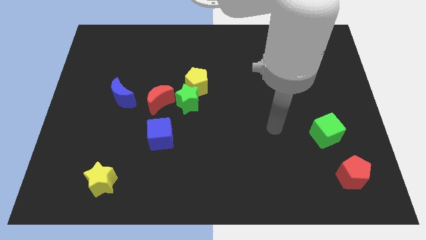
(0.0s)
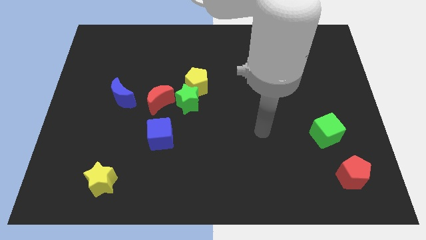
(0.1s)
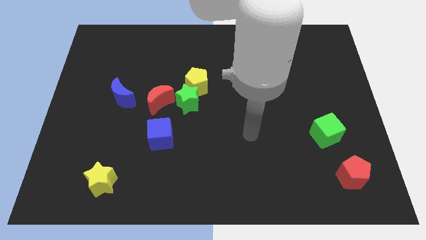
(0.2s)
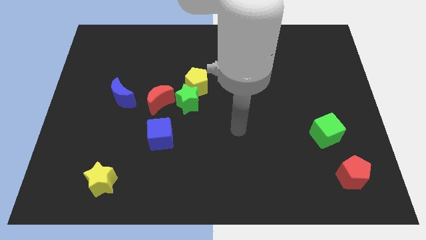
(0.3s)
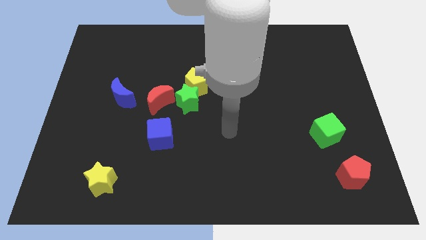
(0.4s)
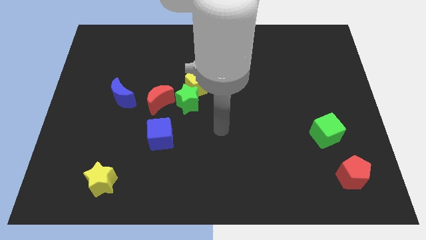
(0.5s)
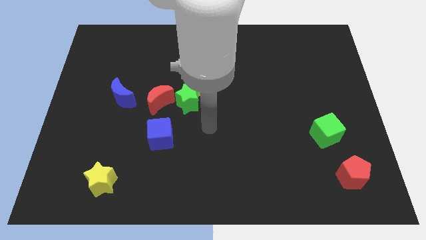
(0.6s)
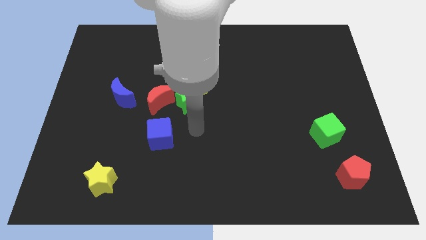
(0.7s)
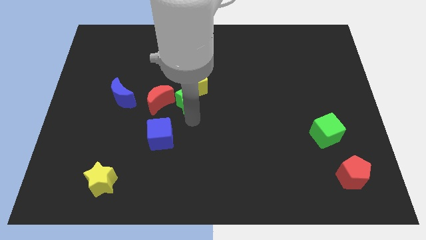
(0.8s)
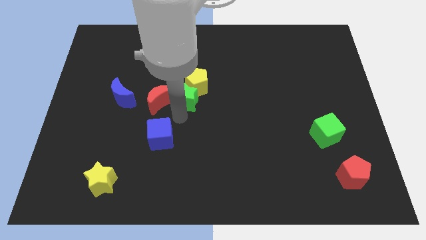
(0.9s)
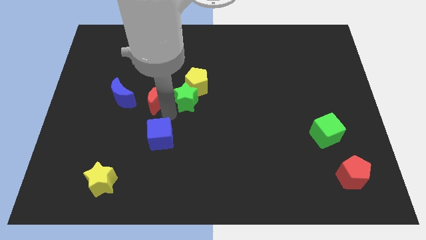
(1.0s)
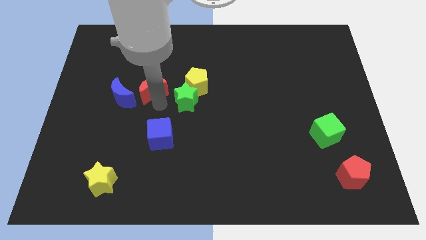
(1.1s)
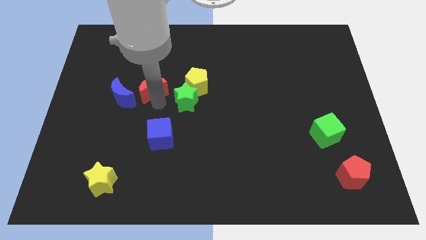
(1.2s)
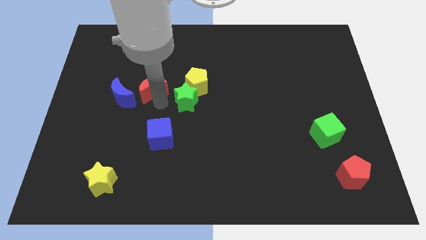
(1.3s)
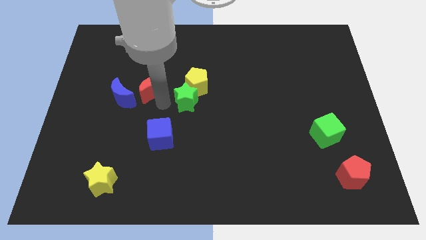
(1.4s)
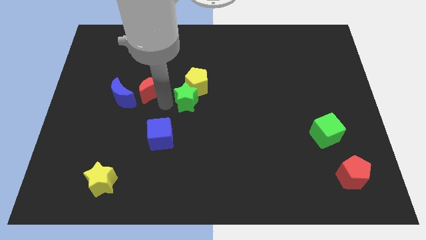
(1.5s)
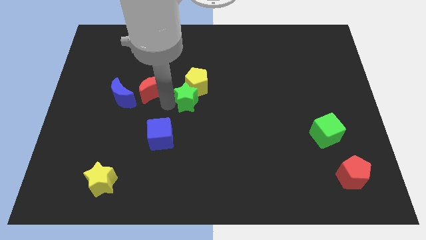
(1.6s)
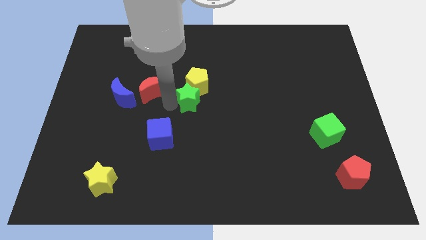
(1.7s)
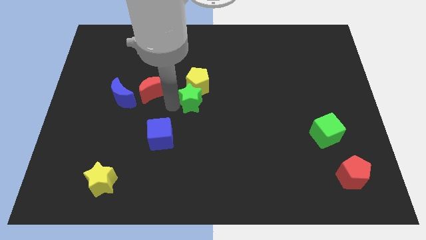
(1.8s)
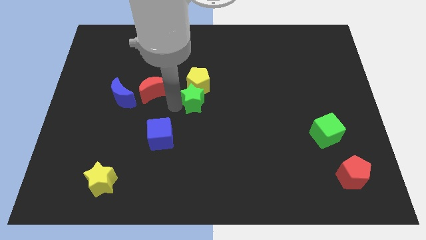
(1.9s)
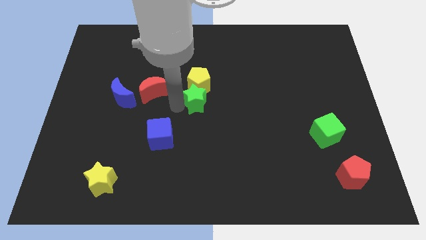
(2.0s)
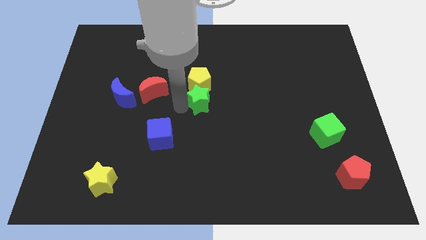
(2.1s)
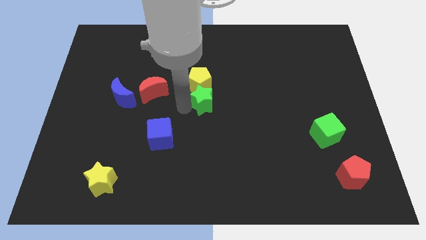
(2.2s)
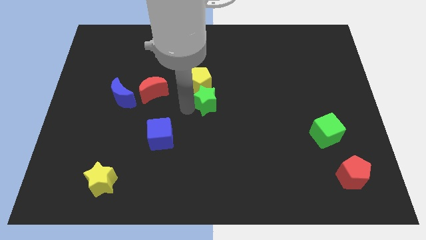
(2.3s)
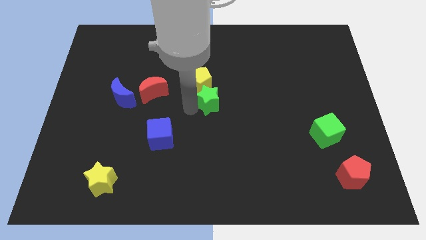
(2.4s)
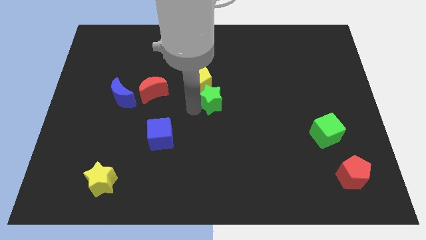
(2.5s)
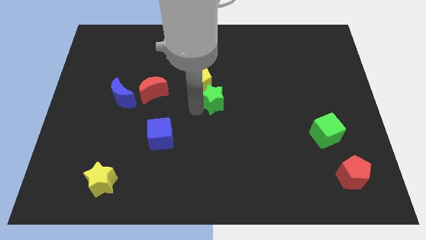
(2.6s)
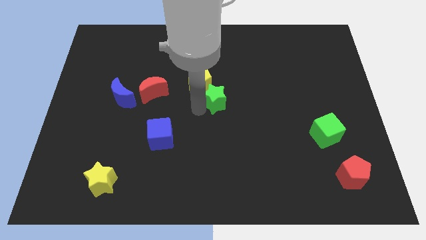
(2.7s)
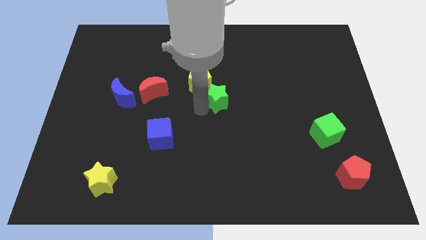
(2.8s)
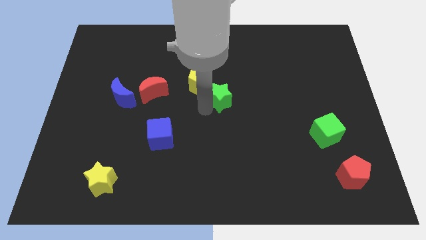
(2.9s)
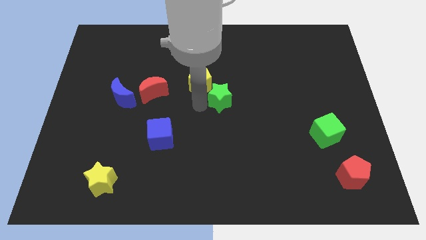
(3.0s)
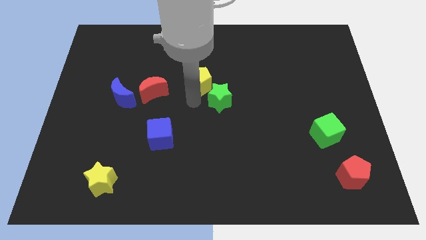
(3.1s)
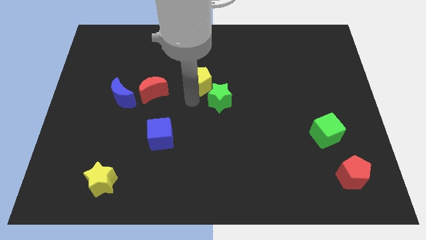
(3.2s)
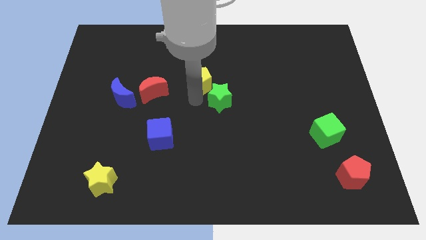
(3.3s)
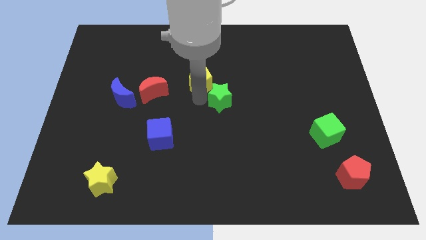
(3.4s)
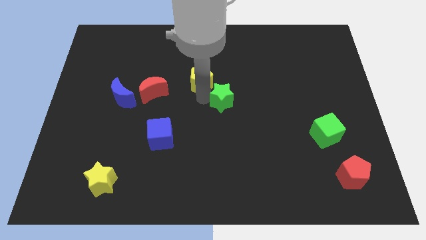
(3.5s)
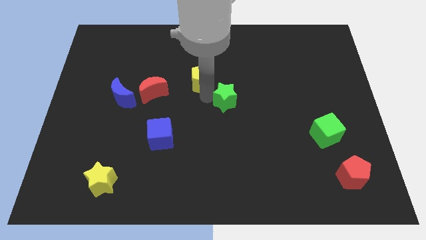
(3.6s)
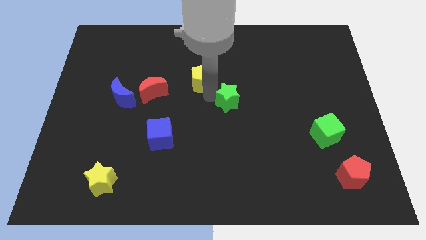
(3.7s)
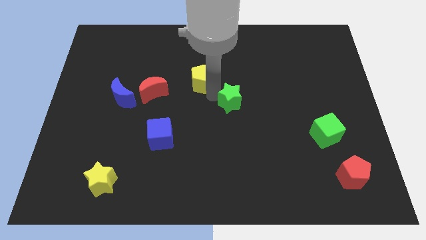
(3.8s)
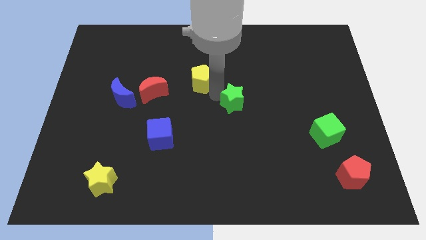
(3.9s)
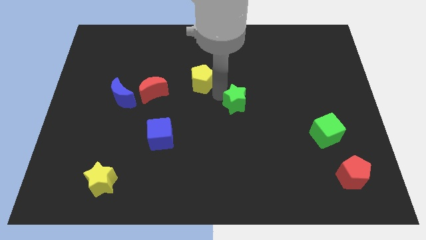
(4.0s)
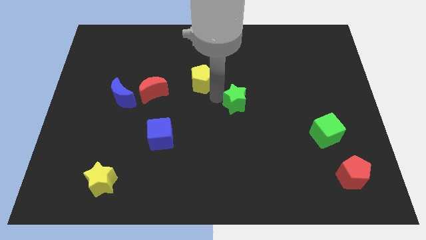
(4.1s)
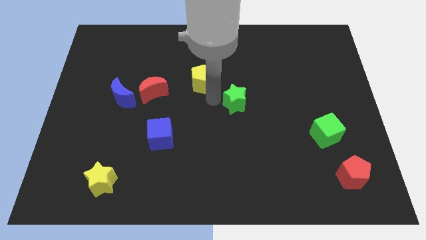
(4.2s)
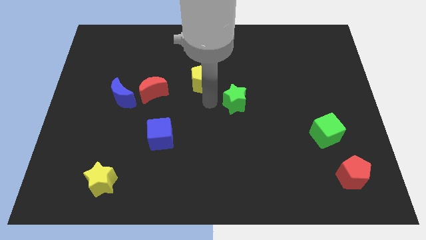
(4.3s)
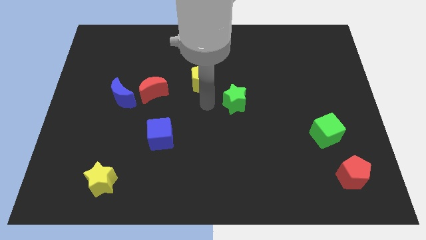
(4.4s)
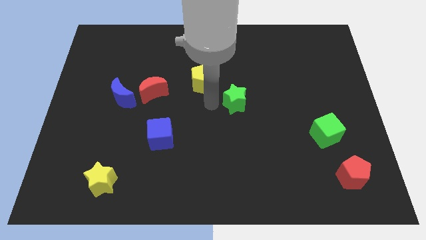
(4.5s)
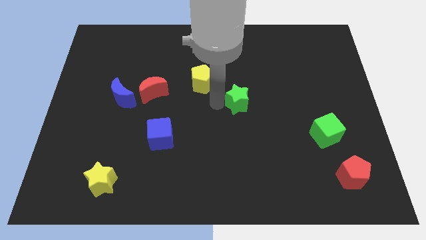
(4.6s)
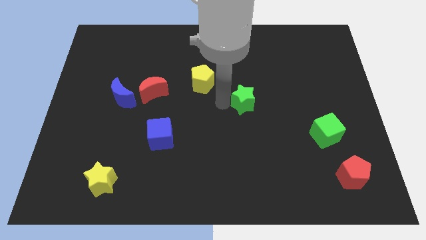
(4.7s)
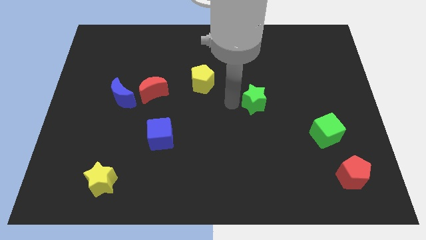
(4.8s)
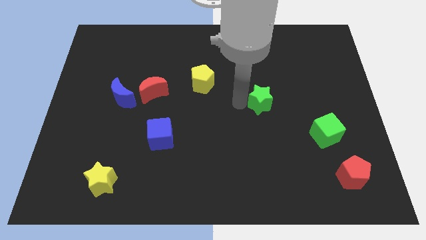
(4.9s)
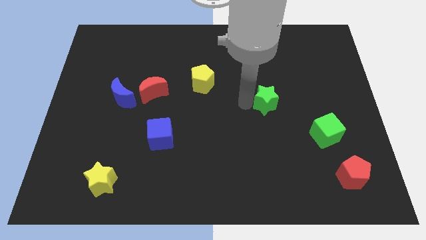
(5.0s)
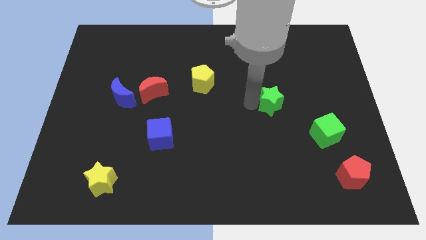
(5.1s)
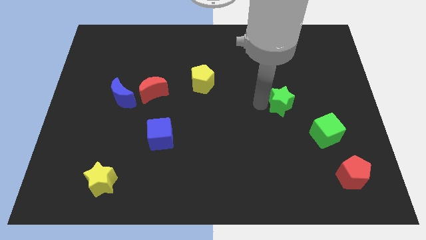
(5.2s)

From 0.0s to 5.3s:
push the green star right

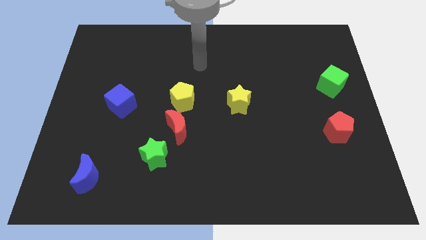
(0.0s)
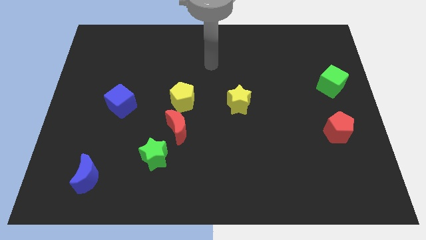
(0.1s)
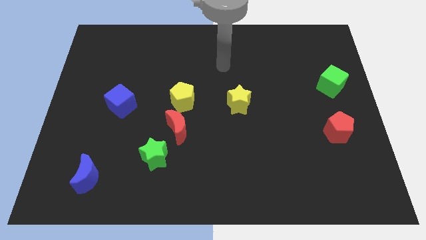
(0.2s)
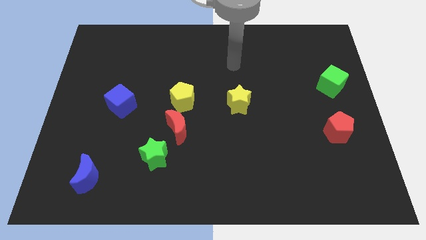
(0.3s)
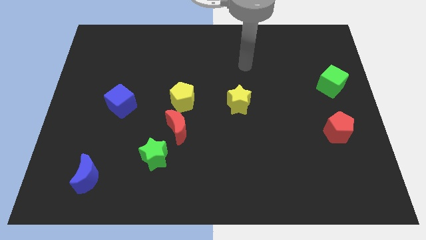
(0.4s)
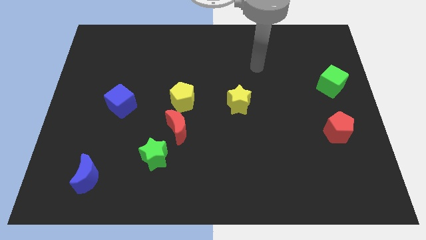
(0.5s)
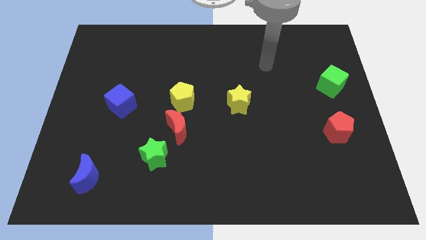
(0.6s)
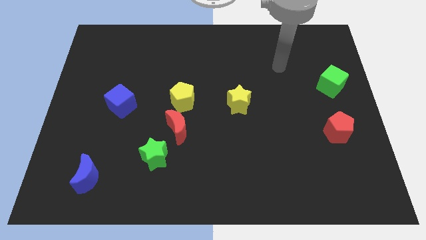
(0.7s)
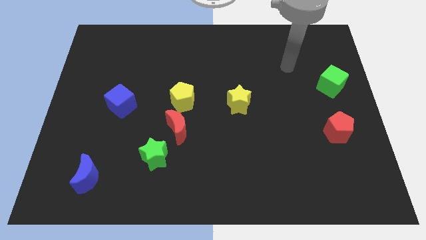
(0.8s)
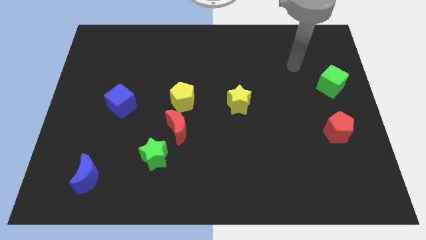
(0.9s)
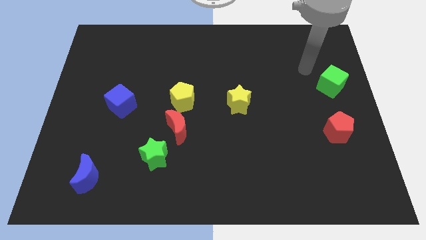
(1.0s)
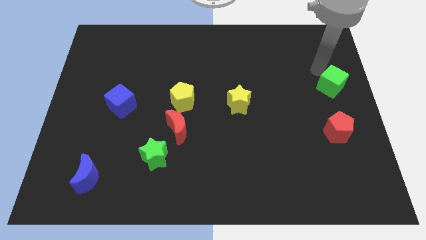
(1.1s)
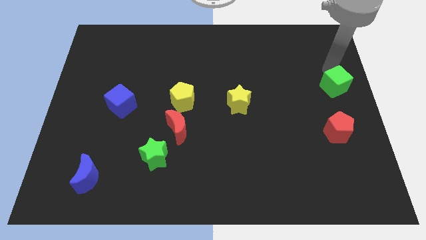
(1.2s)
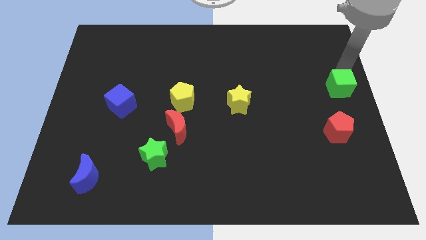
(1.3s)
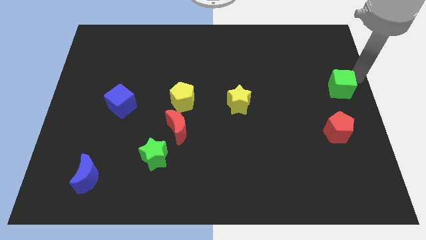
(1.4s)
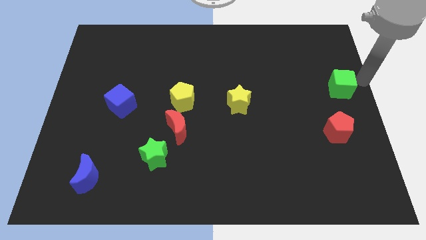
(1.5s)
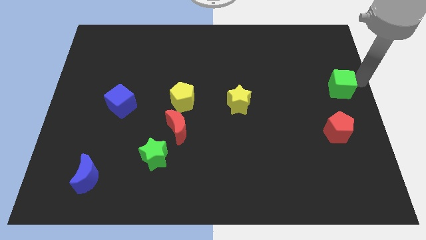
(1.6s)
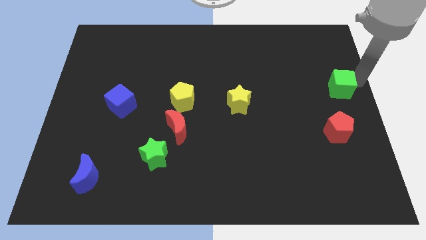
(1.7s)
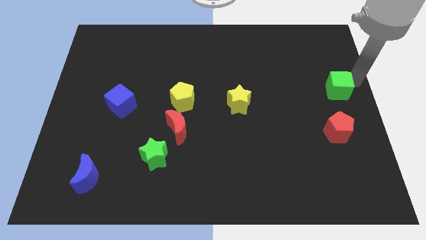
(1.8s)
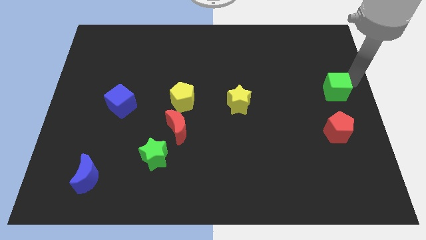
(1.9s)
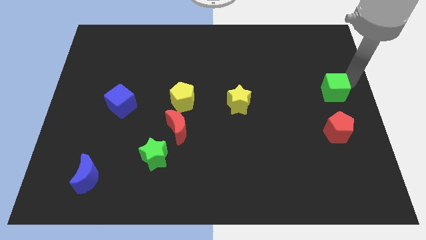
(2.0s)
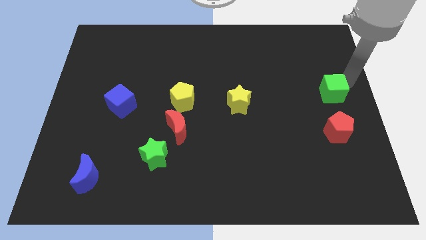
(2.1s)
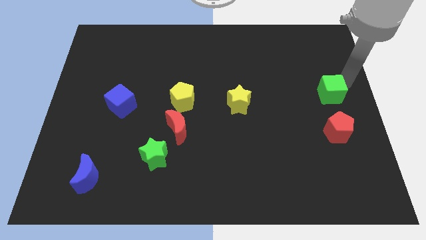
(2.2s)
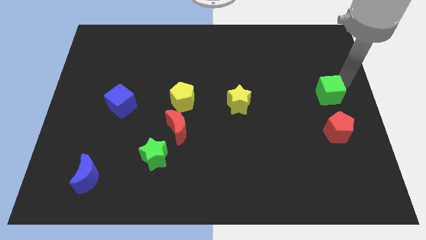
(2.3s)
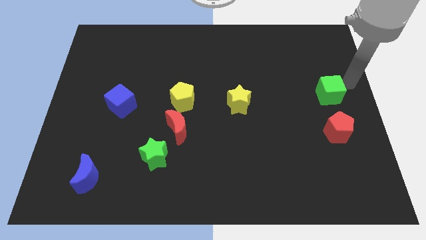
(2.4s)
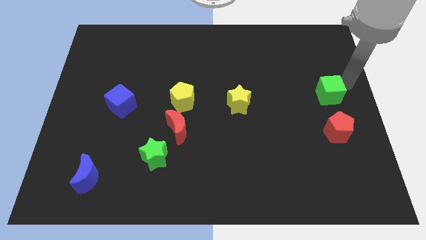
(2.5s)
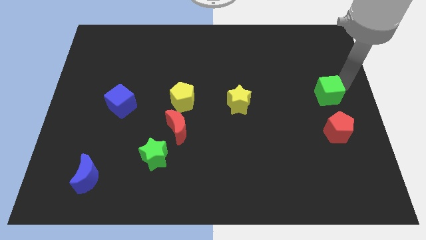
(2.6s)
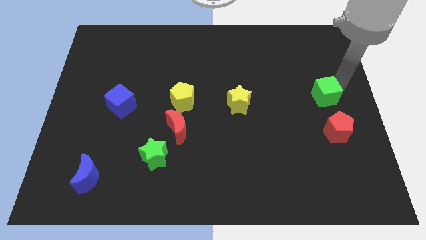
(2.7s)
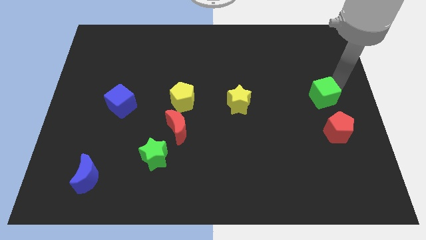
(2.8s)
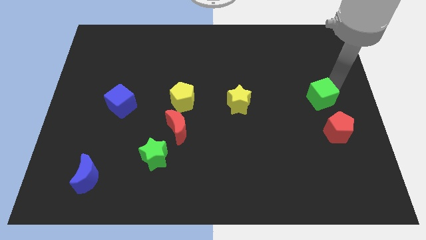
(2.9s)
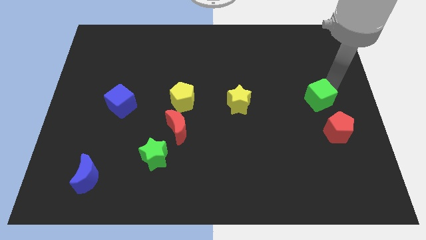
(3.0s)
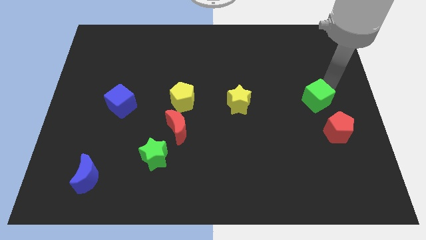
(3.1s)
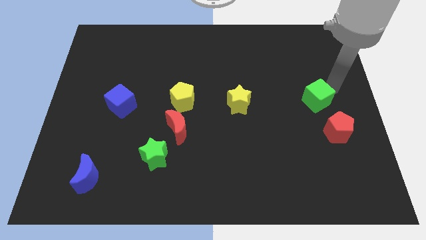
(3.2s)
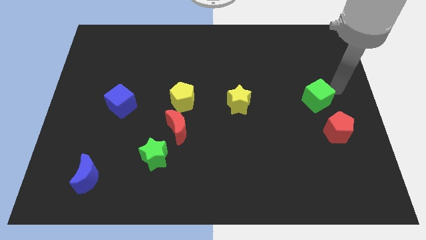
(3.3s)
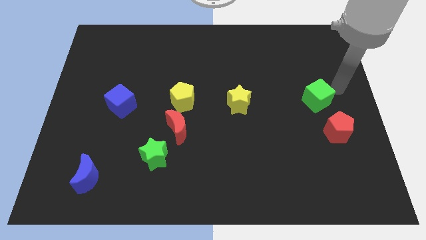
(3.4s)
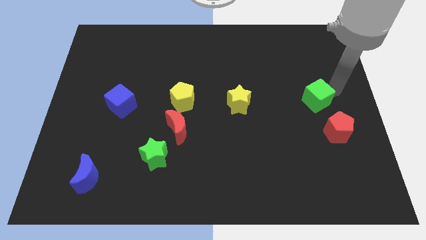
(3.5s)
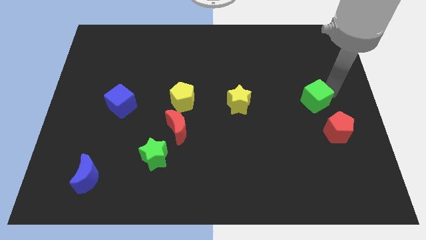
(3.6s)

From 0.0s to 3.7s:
move the green cube downwards and left diagonally a little bit
